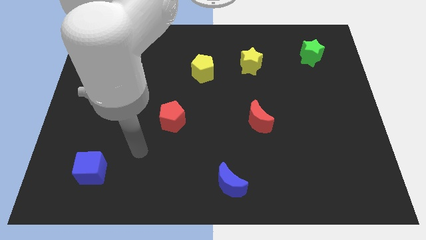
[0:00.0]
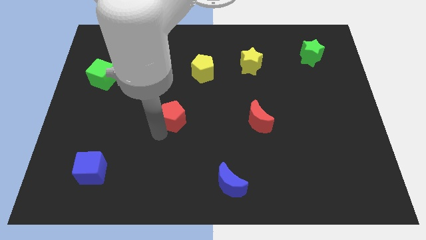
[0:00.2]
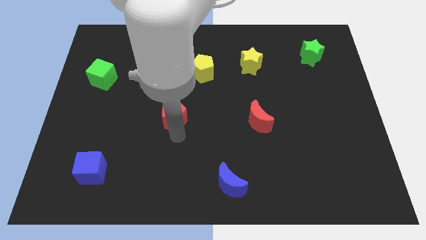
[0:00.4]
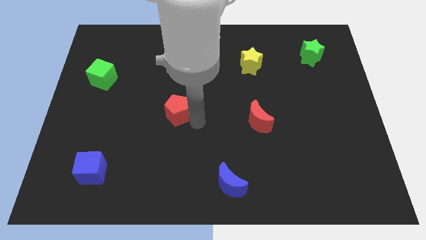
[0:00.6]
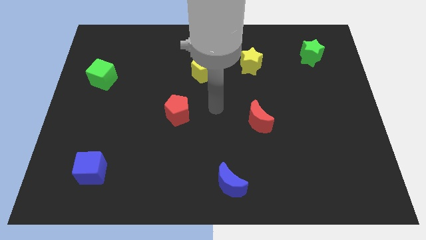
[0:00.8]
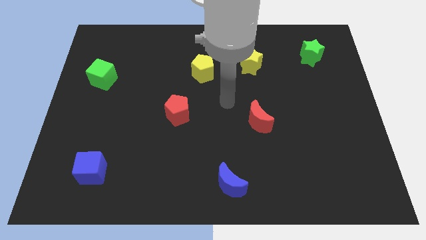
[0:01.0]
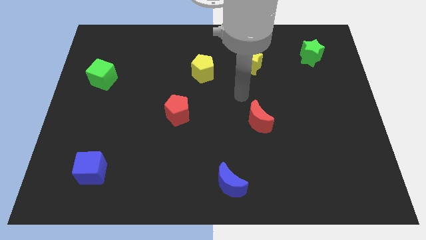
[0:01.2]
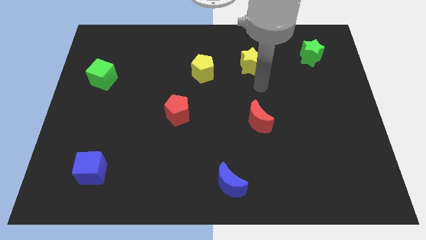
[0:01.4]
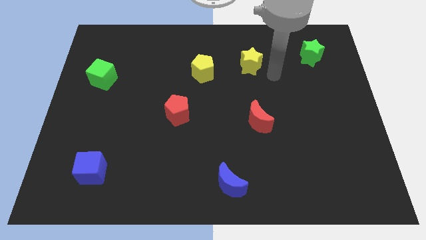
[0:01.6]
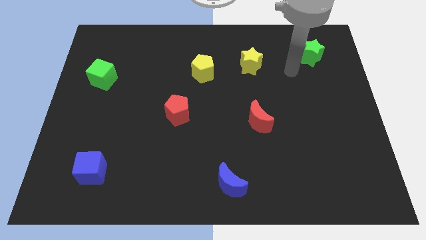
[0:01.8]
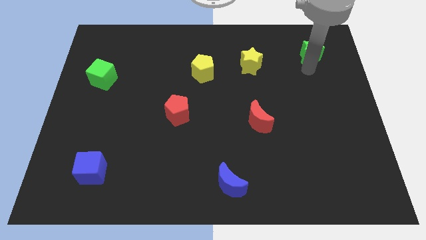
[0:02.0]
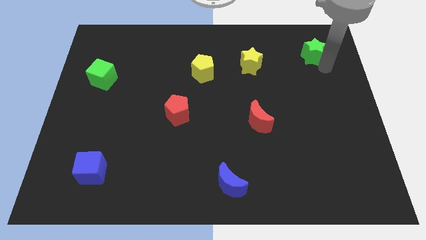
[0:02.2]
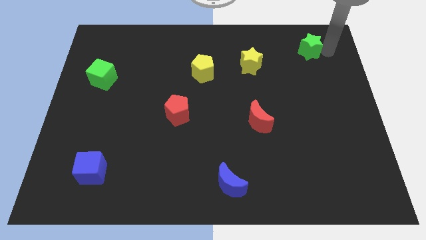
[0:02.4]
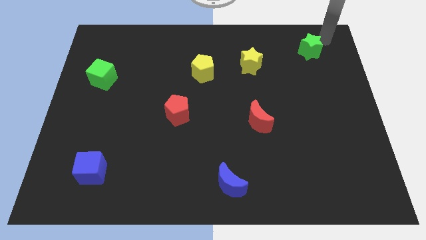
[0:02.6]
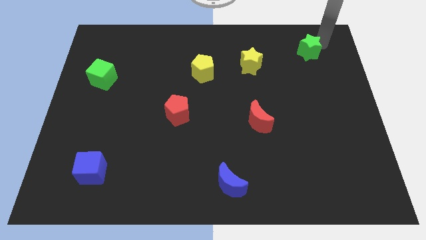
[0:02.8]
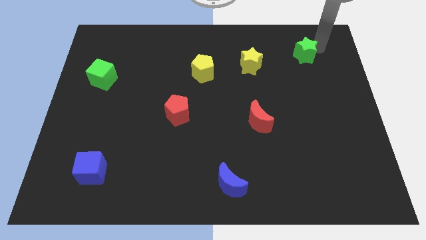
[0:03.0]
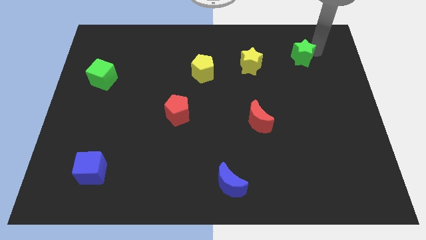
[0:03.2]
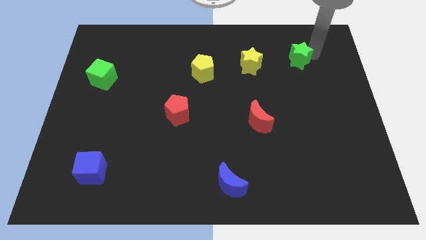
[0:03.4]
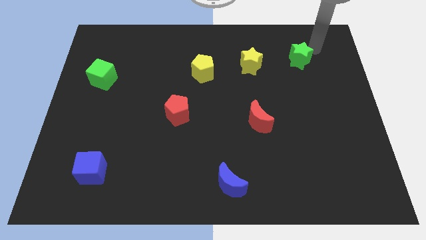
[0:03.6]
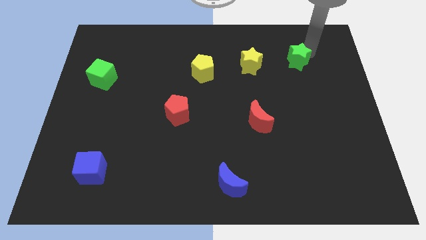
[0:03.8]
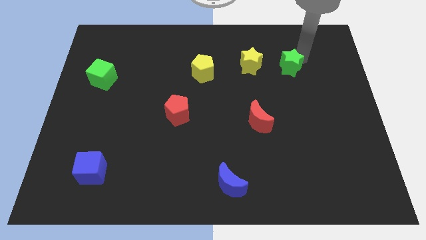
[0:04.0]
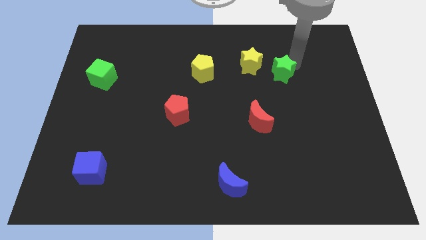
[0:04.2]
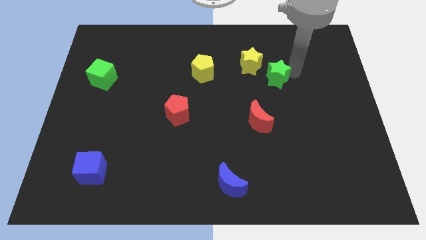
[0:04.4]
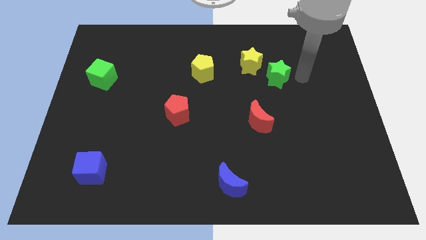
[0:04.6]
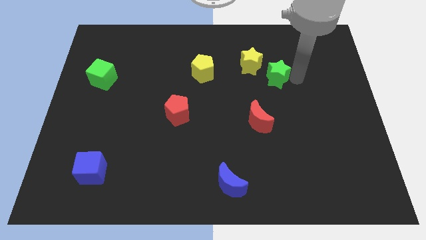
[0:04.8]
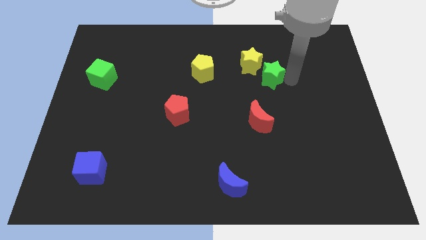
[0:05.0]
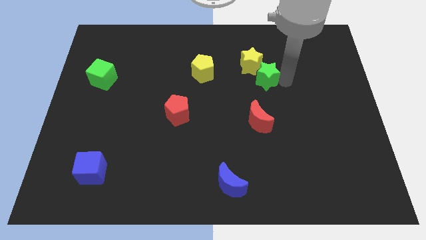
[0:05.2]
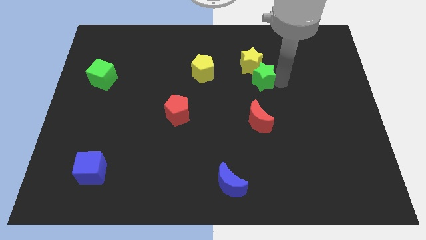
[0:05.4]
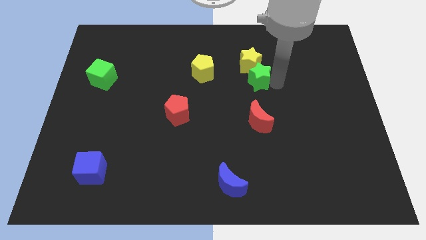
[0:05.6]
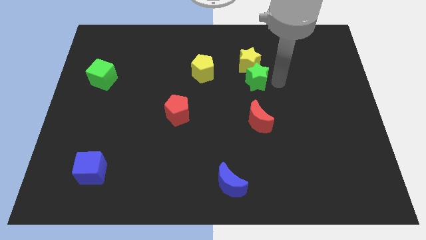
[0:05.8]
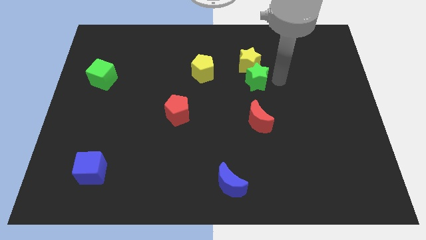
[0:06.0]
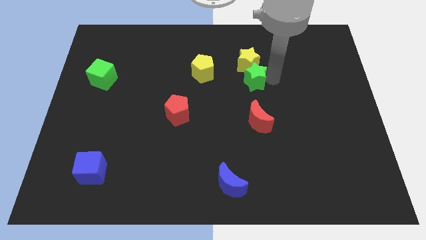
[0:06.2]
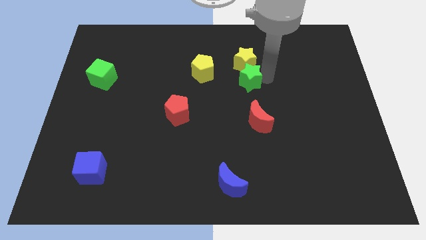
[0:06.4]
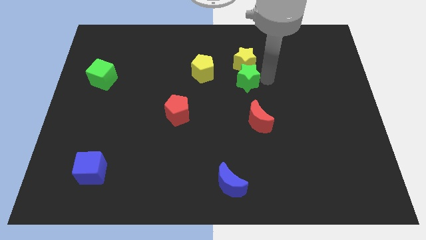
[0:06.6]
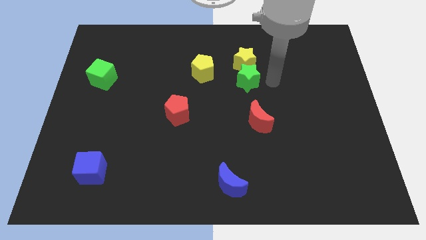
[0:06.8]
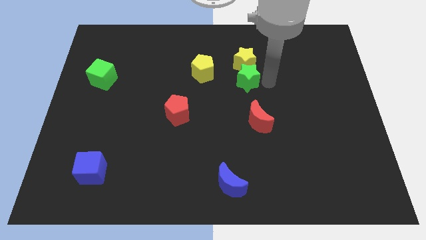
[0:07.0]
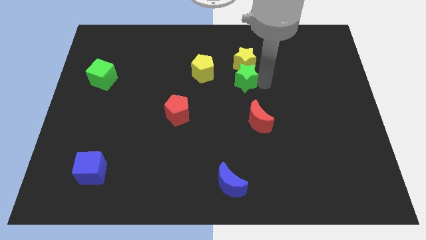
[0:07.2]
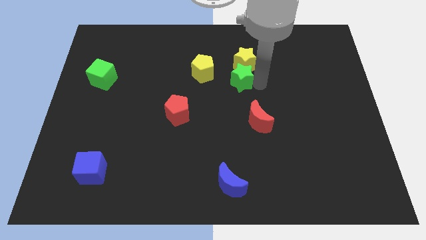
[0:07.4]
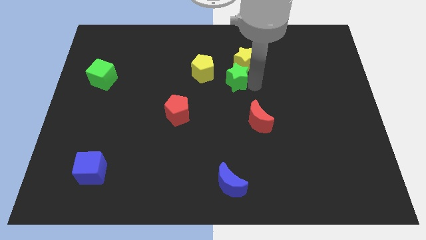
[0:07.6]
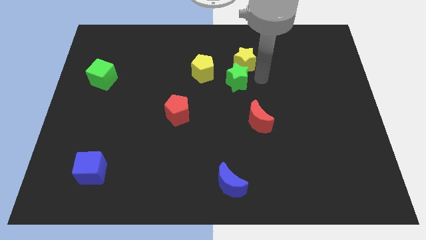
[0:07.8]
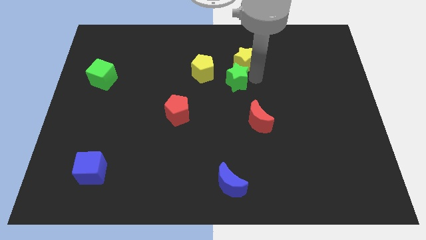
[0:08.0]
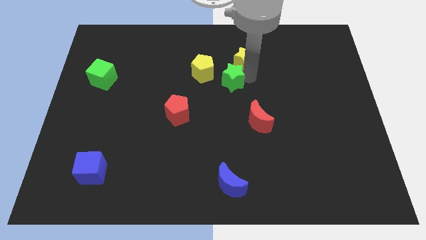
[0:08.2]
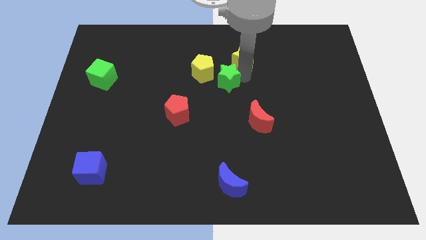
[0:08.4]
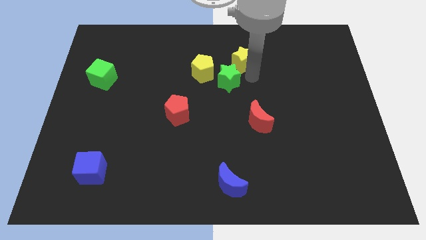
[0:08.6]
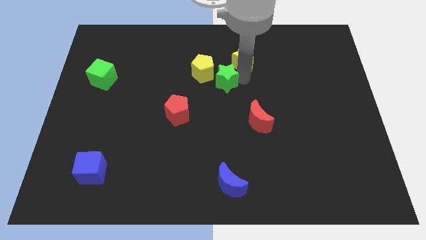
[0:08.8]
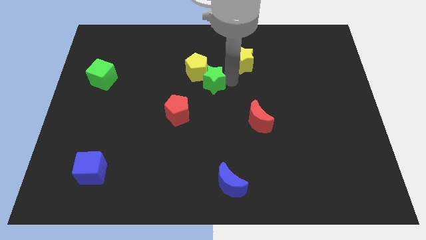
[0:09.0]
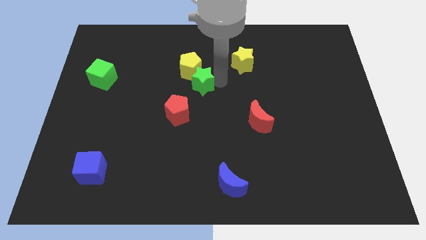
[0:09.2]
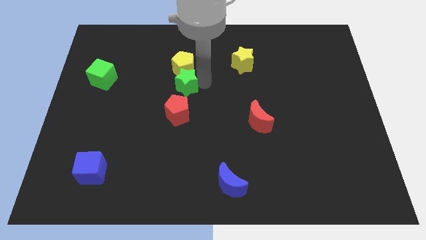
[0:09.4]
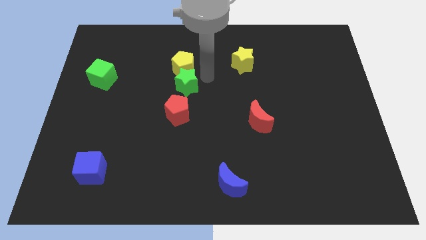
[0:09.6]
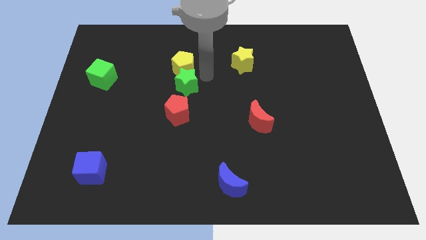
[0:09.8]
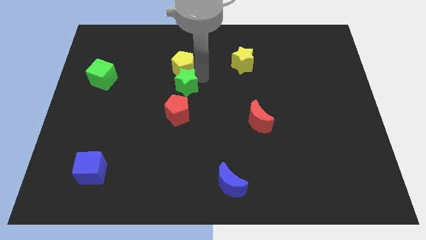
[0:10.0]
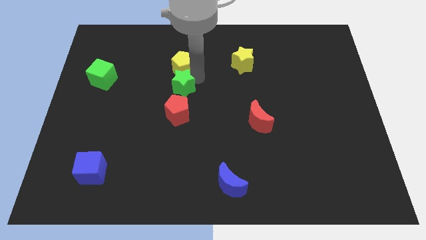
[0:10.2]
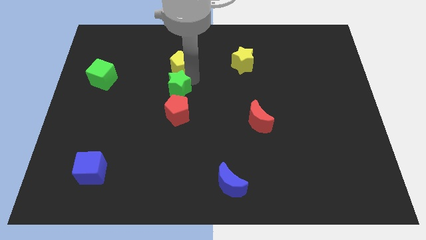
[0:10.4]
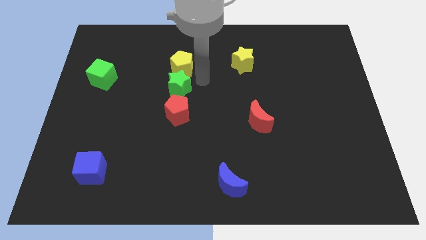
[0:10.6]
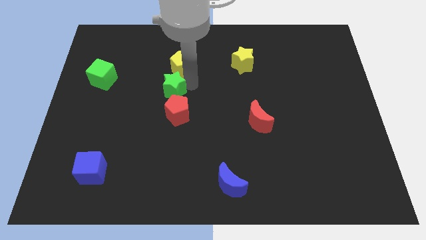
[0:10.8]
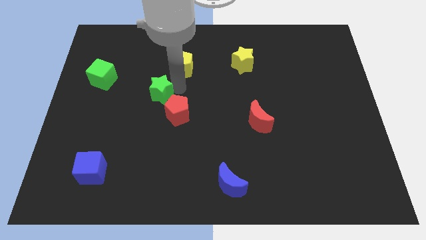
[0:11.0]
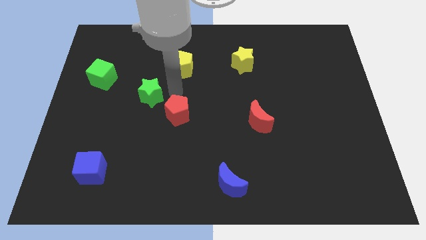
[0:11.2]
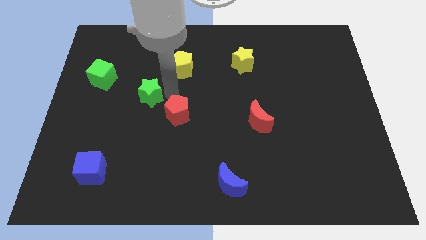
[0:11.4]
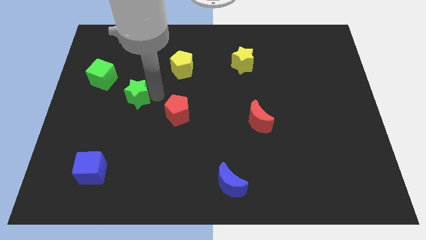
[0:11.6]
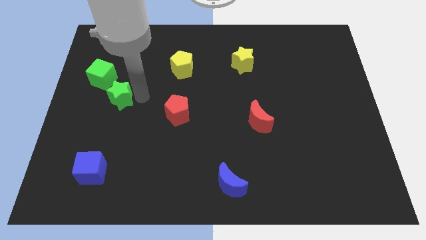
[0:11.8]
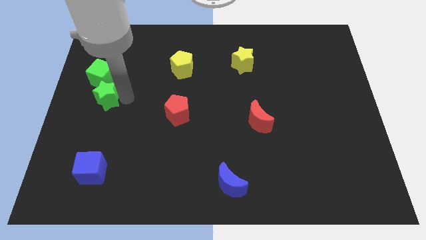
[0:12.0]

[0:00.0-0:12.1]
move the green star to the center left

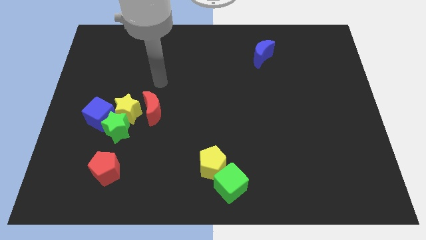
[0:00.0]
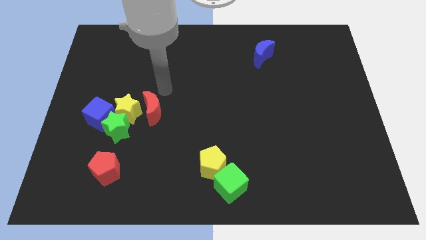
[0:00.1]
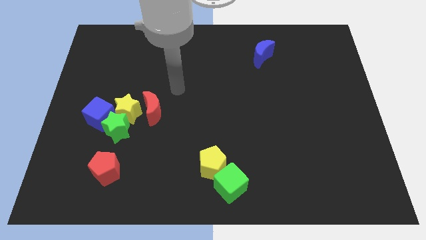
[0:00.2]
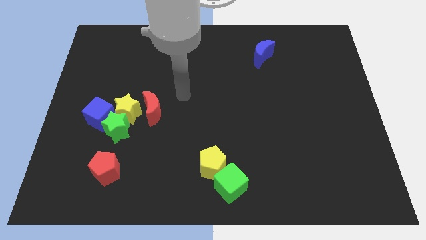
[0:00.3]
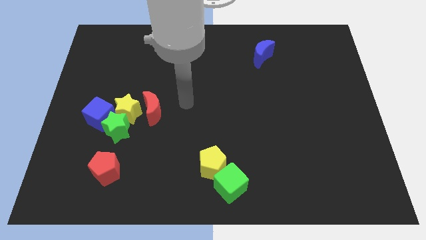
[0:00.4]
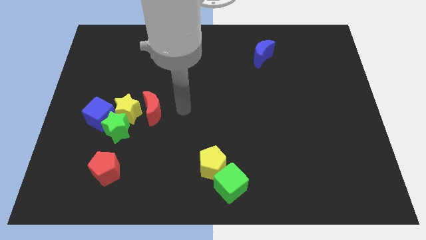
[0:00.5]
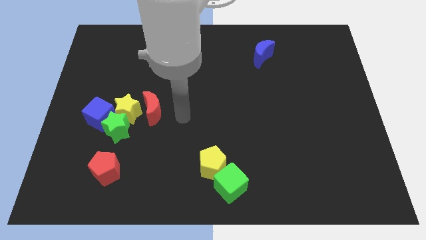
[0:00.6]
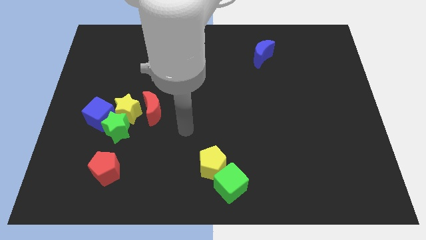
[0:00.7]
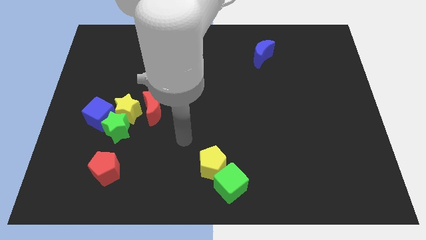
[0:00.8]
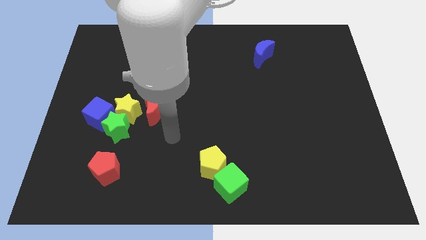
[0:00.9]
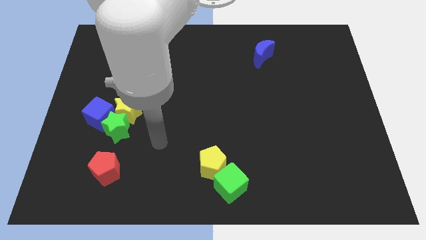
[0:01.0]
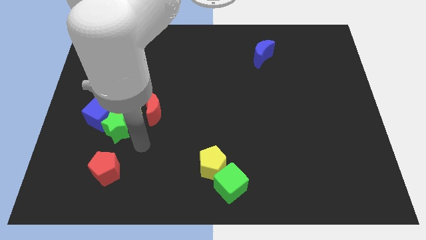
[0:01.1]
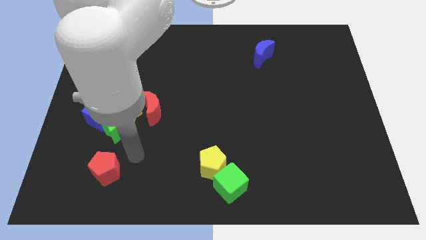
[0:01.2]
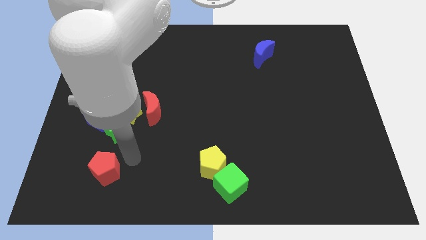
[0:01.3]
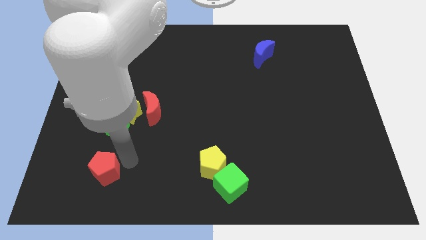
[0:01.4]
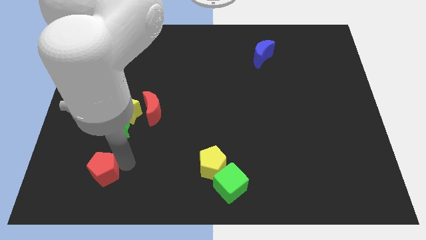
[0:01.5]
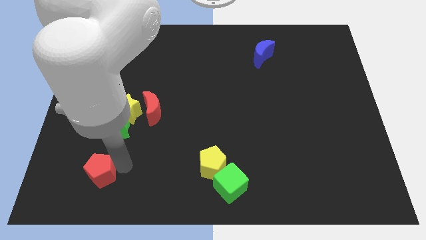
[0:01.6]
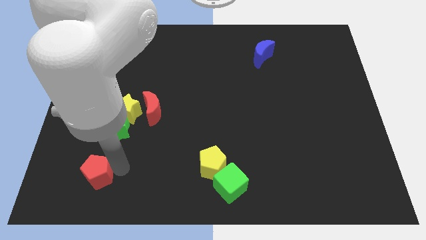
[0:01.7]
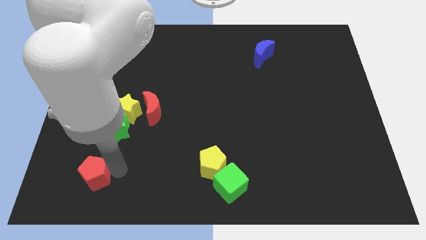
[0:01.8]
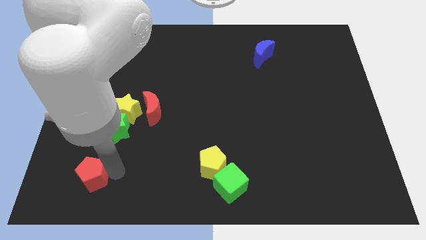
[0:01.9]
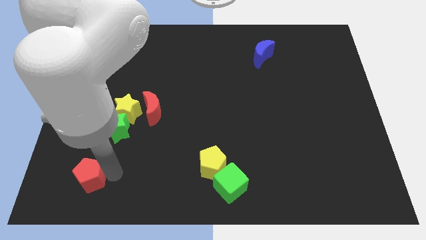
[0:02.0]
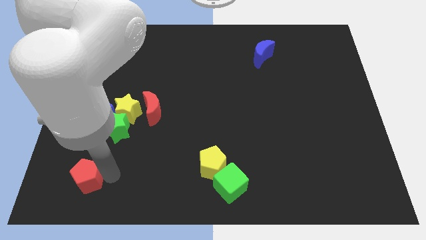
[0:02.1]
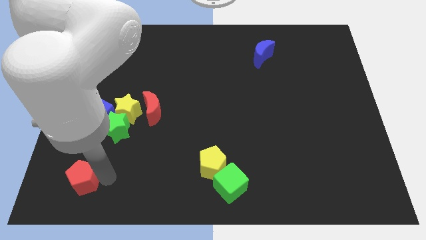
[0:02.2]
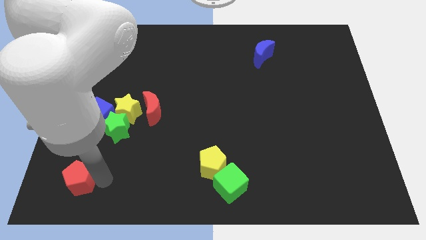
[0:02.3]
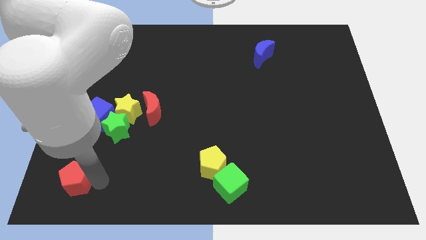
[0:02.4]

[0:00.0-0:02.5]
put the red pentagon to the lower left corner
